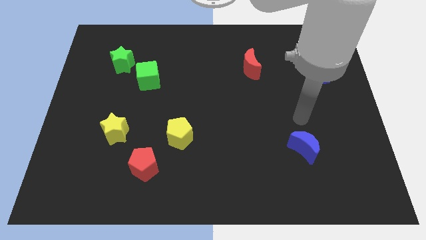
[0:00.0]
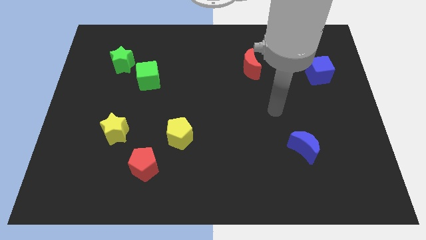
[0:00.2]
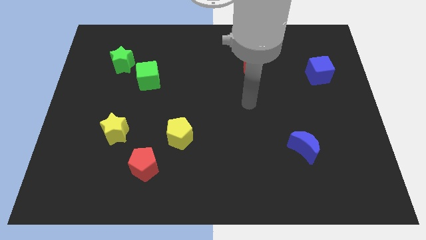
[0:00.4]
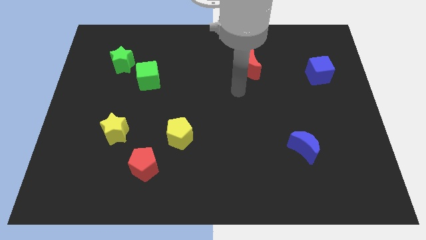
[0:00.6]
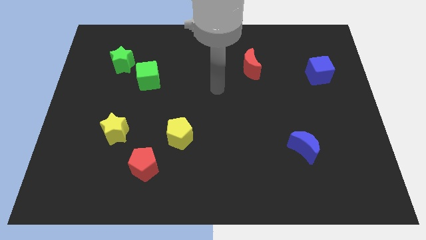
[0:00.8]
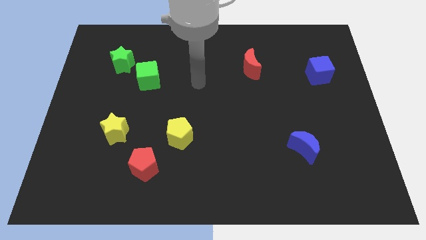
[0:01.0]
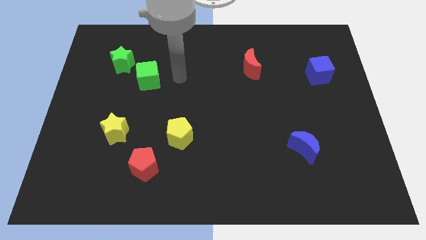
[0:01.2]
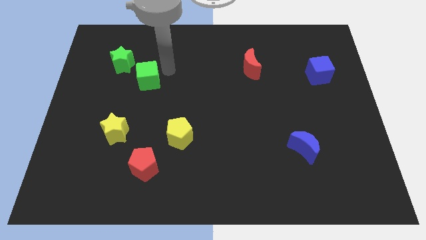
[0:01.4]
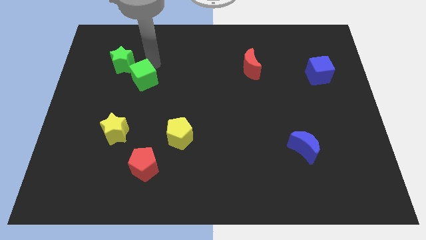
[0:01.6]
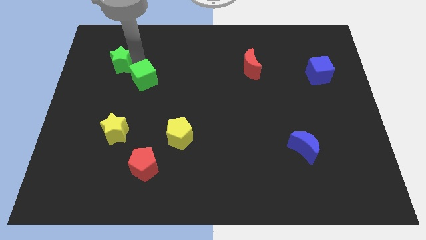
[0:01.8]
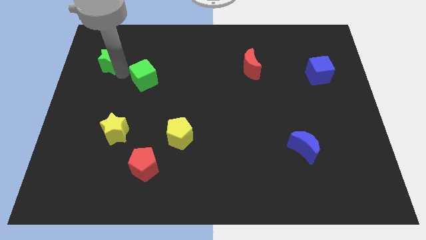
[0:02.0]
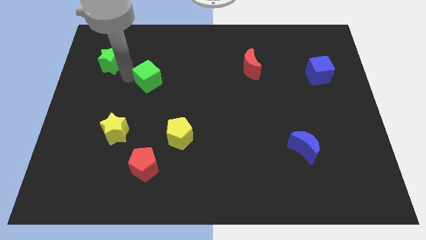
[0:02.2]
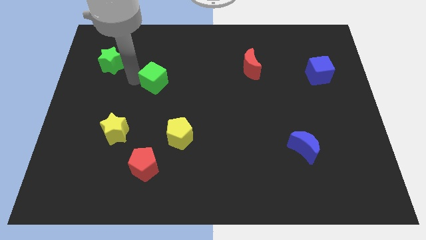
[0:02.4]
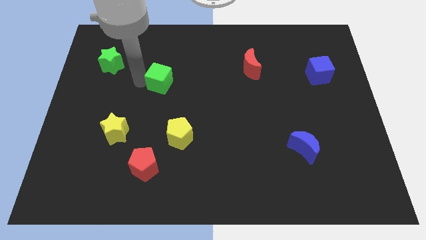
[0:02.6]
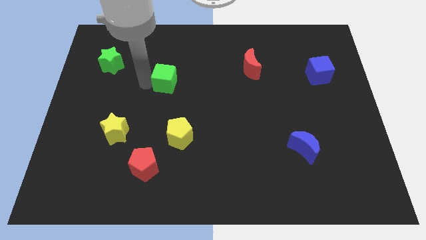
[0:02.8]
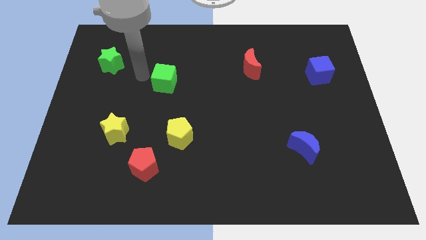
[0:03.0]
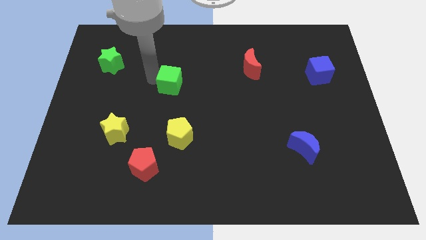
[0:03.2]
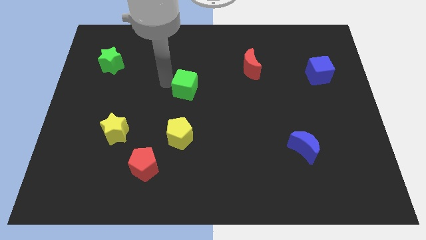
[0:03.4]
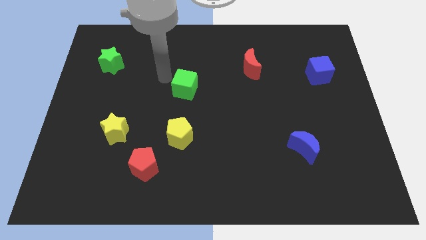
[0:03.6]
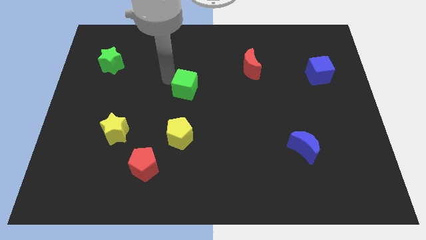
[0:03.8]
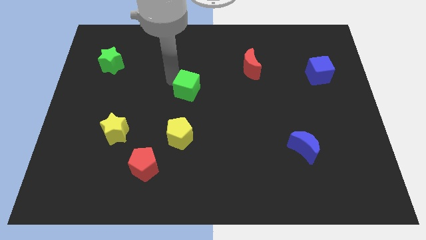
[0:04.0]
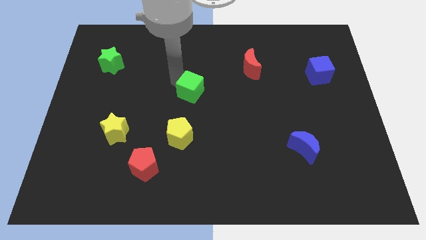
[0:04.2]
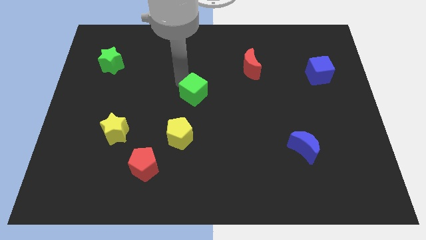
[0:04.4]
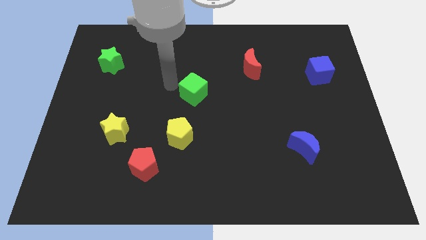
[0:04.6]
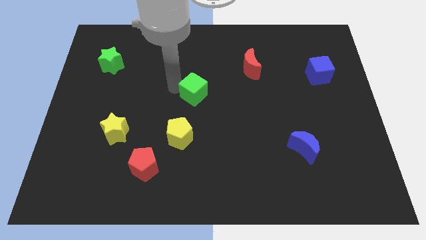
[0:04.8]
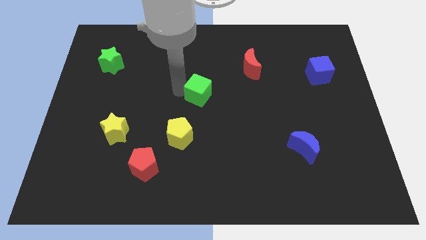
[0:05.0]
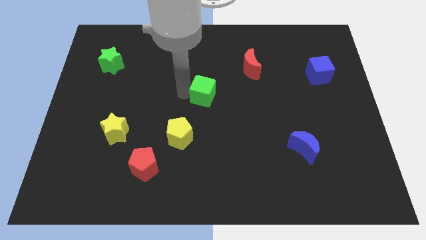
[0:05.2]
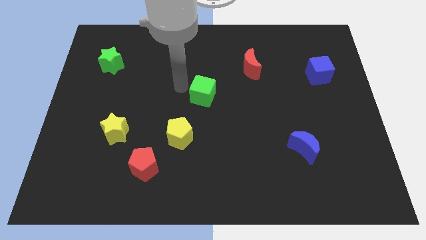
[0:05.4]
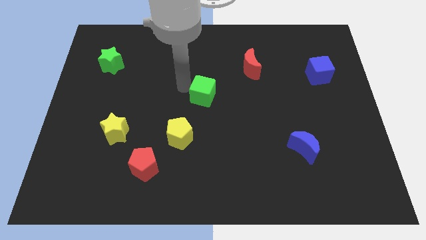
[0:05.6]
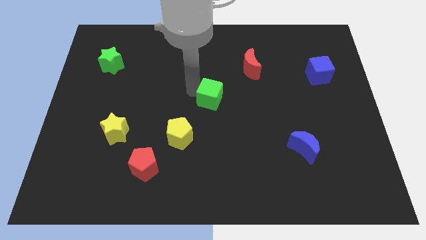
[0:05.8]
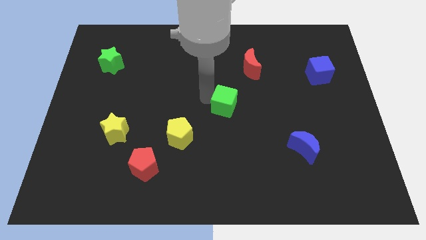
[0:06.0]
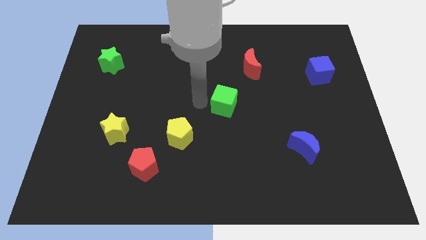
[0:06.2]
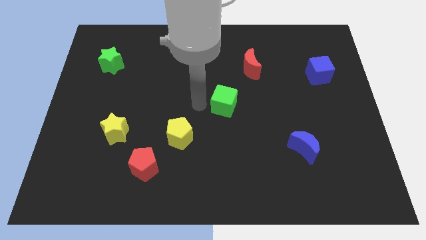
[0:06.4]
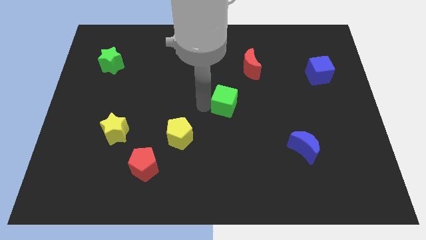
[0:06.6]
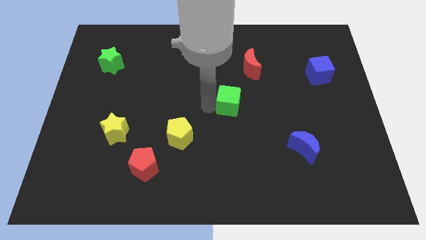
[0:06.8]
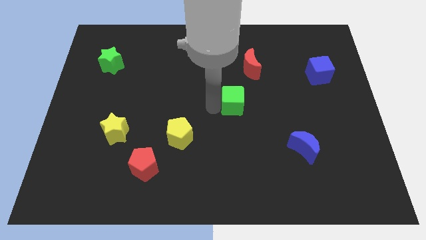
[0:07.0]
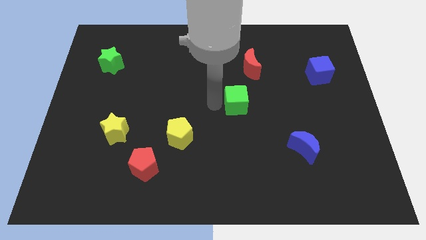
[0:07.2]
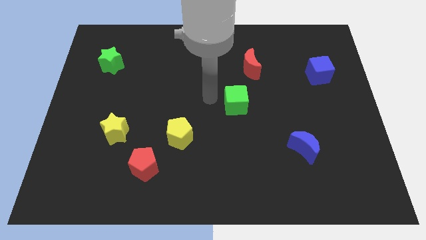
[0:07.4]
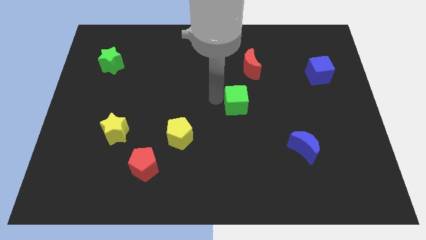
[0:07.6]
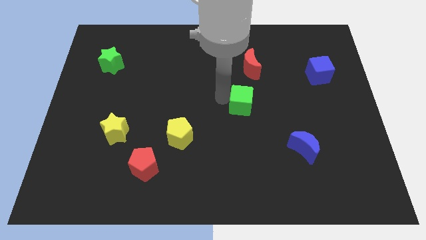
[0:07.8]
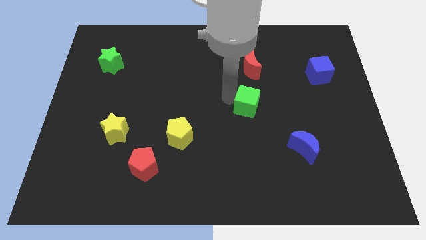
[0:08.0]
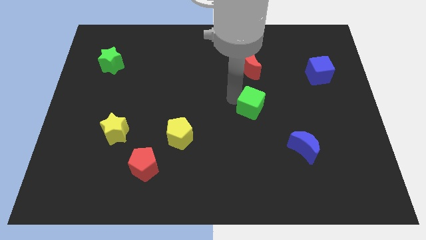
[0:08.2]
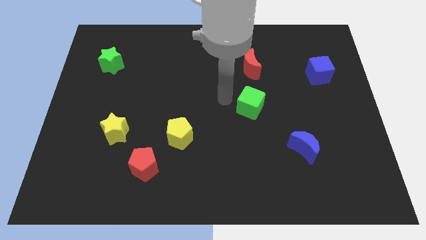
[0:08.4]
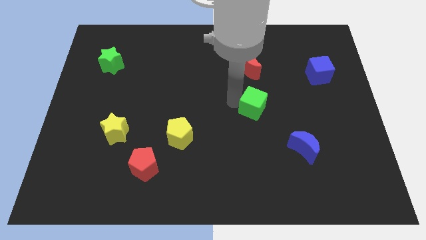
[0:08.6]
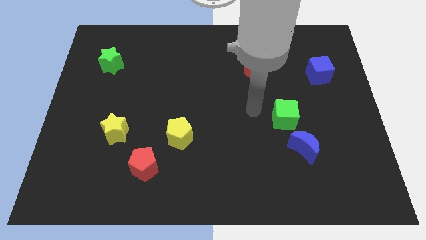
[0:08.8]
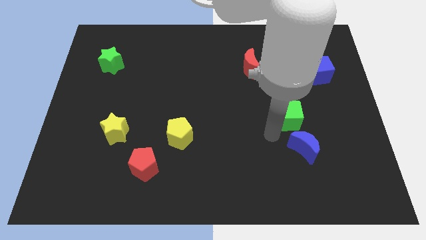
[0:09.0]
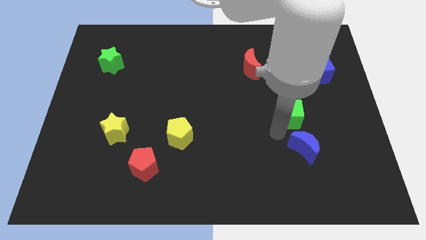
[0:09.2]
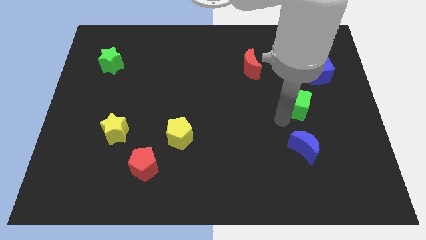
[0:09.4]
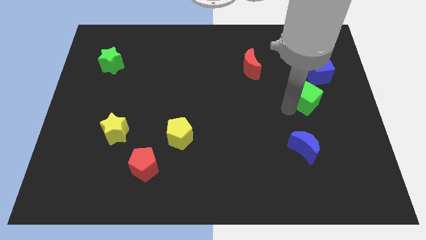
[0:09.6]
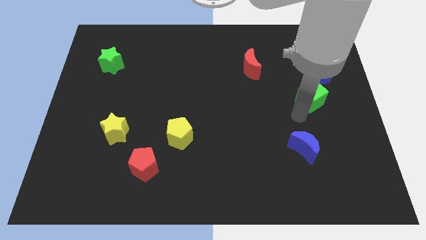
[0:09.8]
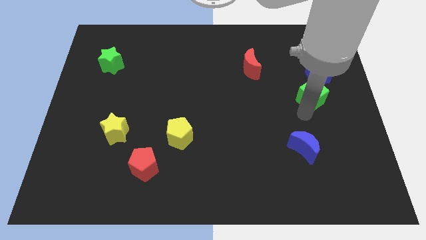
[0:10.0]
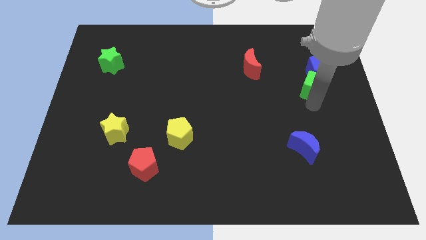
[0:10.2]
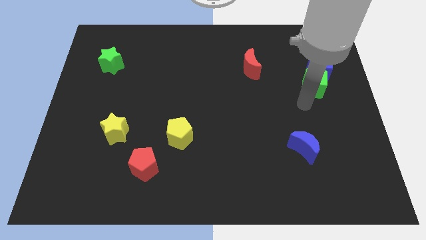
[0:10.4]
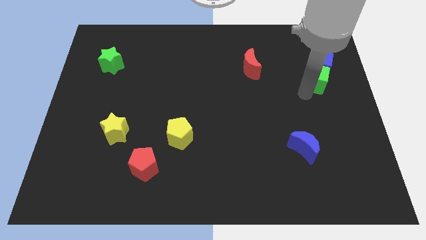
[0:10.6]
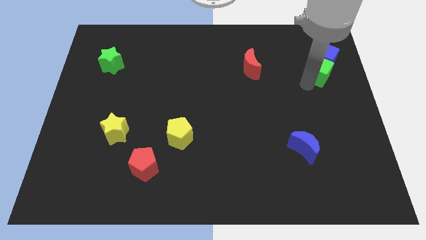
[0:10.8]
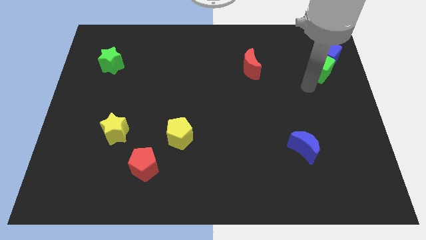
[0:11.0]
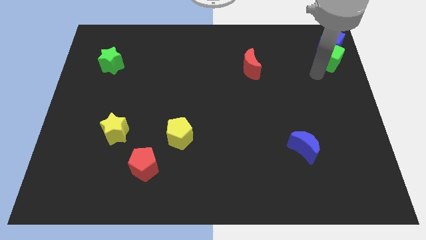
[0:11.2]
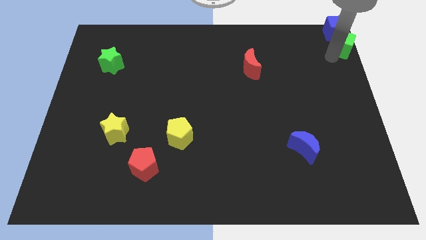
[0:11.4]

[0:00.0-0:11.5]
move the green cube to the top right

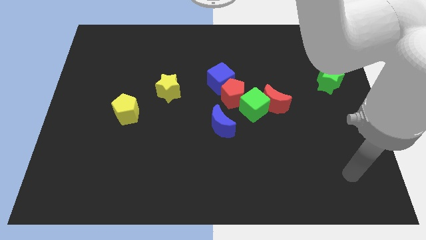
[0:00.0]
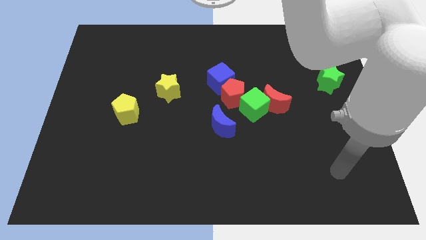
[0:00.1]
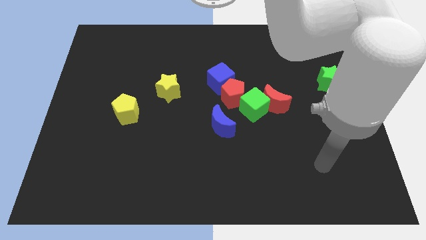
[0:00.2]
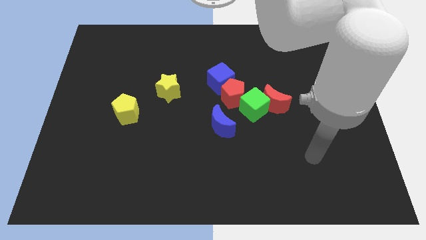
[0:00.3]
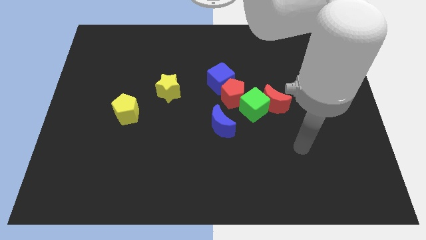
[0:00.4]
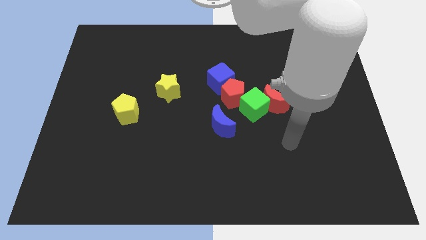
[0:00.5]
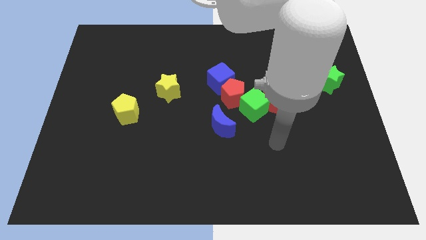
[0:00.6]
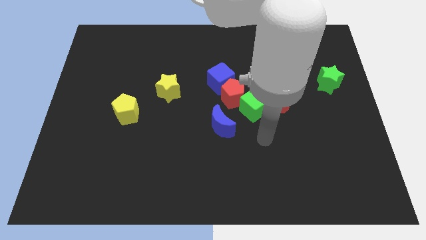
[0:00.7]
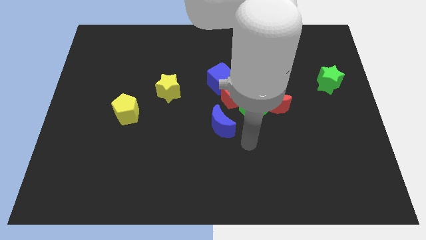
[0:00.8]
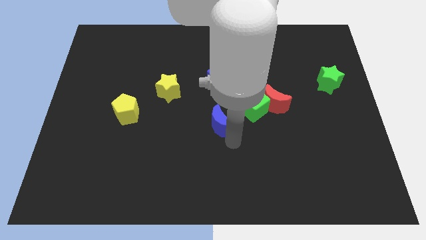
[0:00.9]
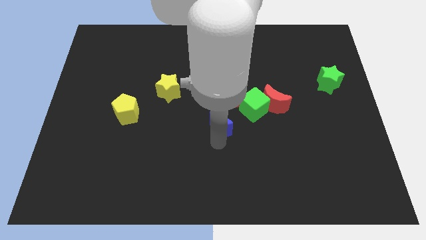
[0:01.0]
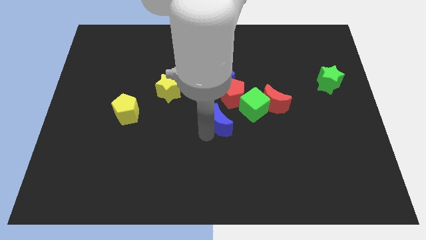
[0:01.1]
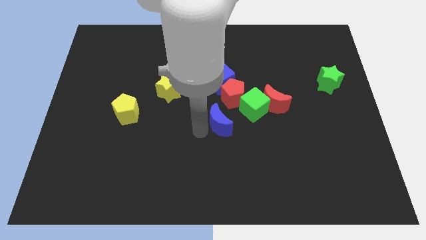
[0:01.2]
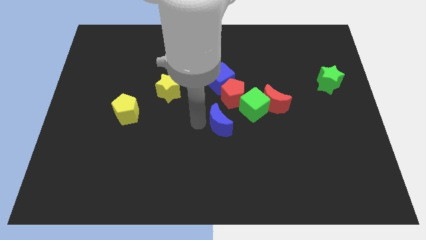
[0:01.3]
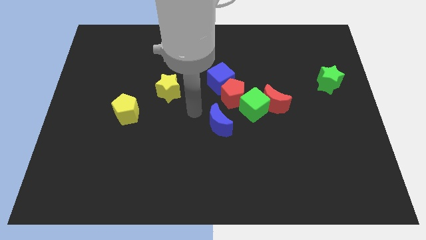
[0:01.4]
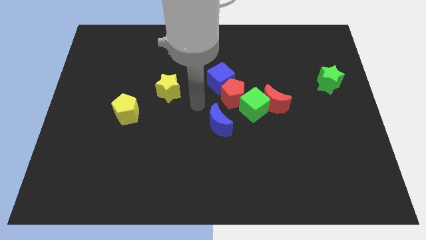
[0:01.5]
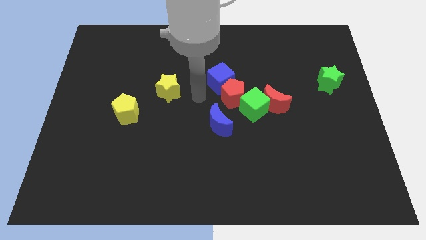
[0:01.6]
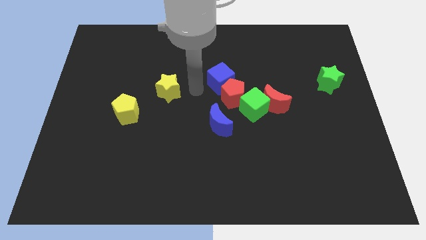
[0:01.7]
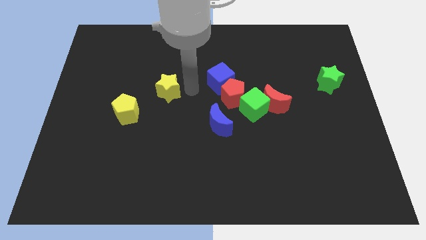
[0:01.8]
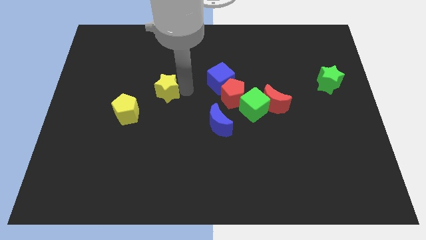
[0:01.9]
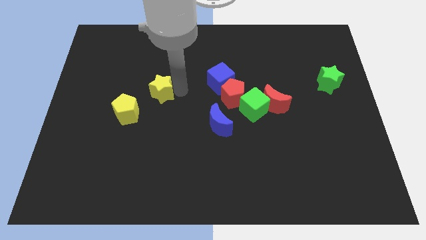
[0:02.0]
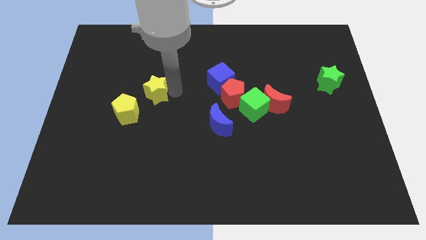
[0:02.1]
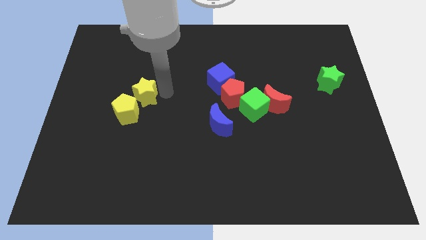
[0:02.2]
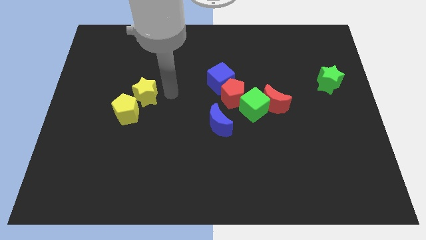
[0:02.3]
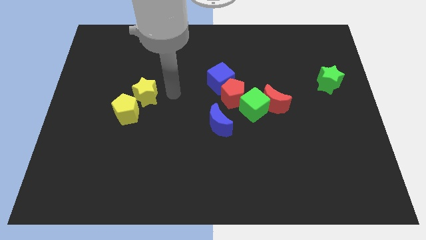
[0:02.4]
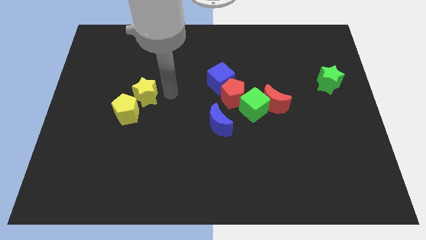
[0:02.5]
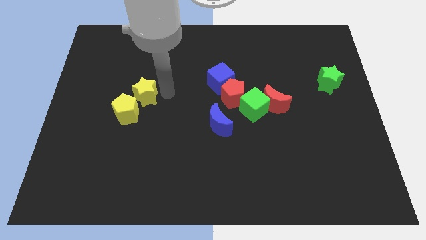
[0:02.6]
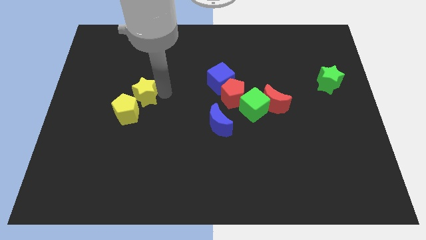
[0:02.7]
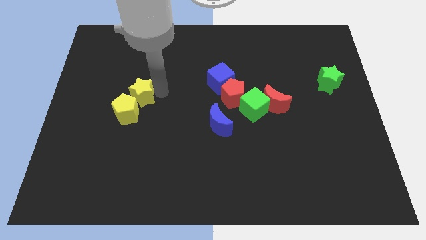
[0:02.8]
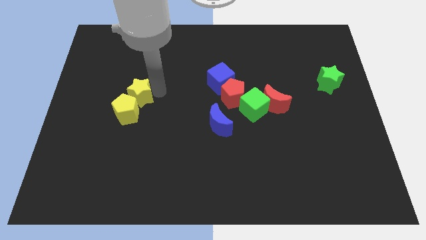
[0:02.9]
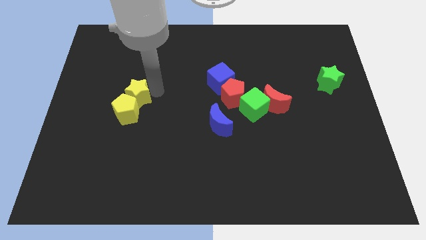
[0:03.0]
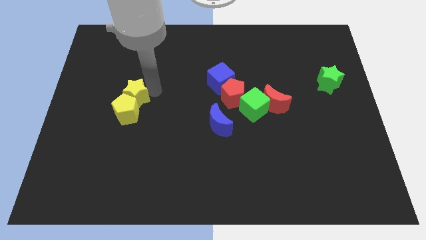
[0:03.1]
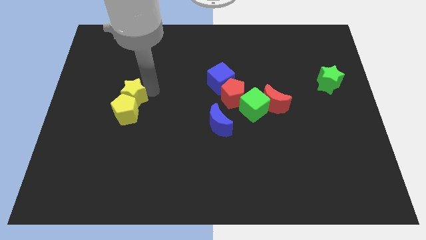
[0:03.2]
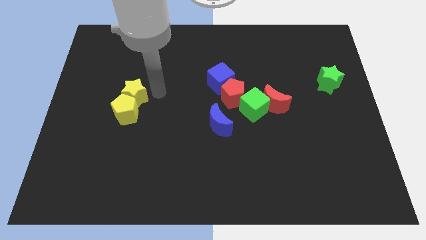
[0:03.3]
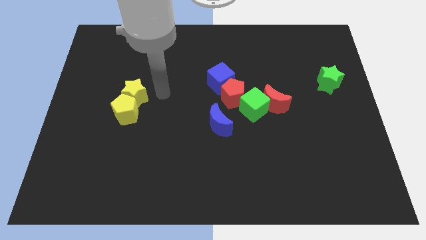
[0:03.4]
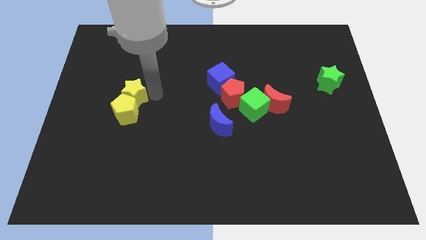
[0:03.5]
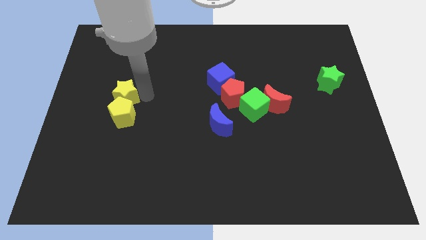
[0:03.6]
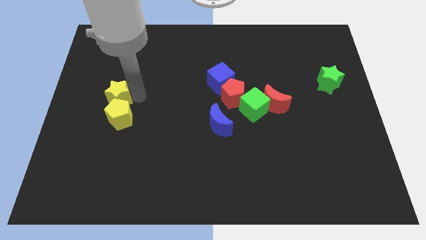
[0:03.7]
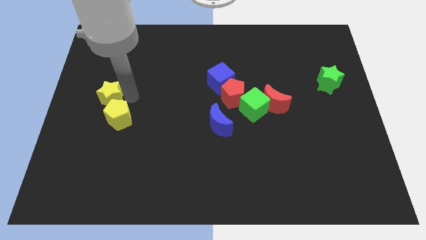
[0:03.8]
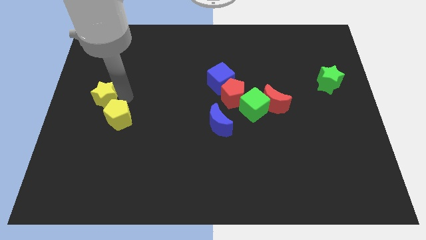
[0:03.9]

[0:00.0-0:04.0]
move the yellow star to the left side
